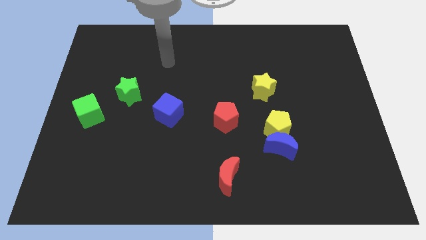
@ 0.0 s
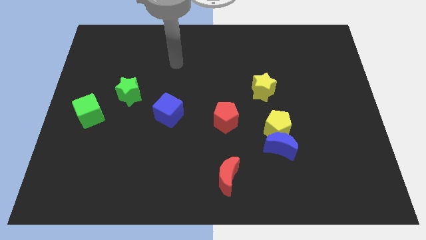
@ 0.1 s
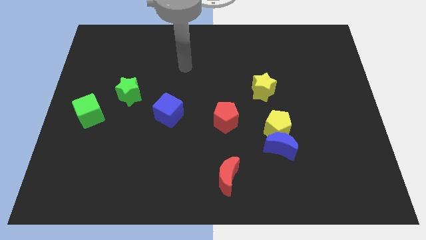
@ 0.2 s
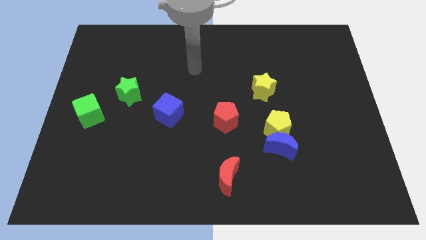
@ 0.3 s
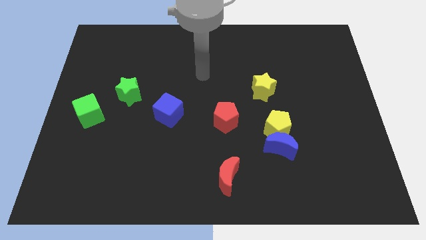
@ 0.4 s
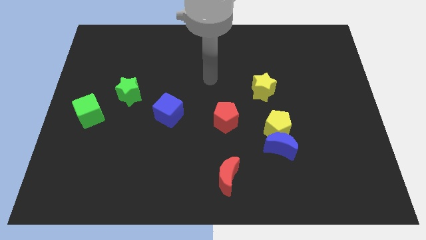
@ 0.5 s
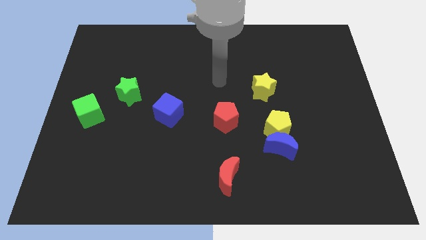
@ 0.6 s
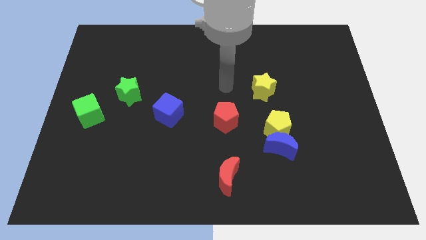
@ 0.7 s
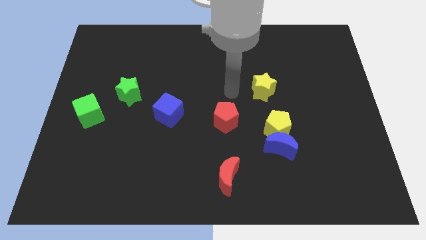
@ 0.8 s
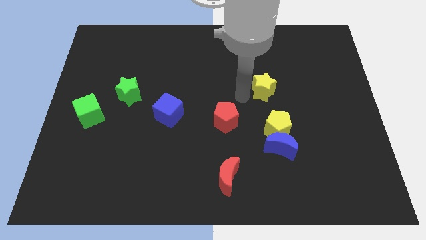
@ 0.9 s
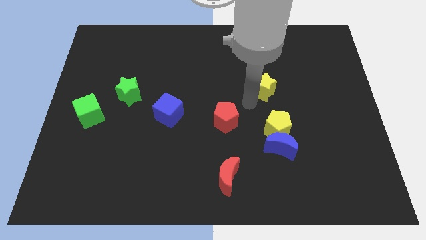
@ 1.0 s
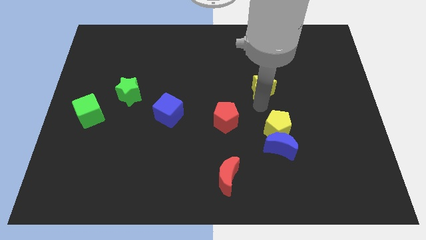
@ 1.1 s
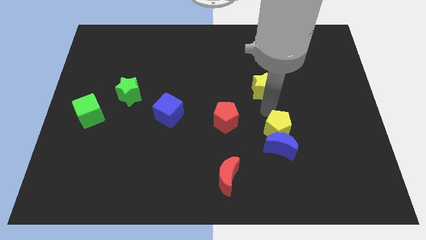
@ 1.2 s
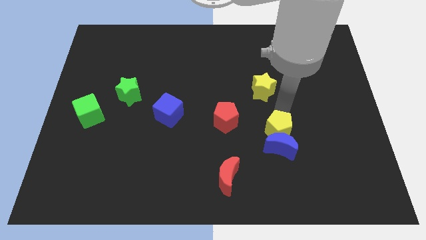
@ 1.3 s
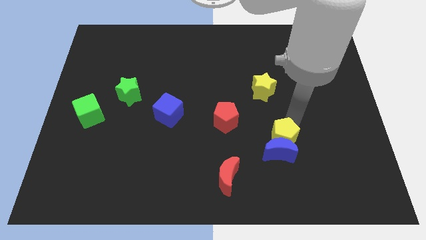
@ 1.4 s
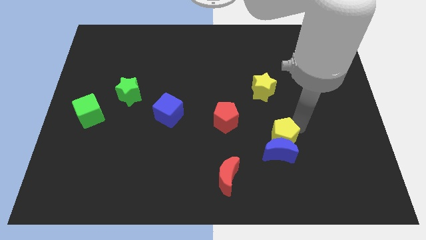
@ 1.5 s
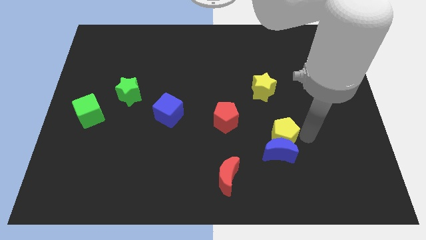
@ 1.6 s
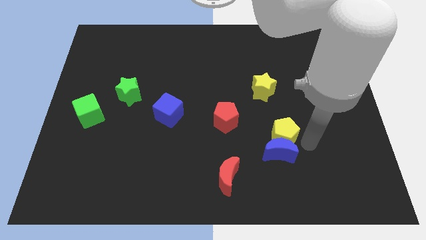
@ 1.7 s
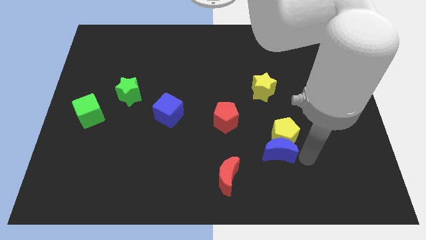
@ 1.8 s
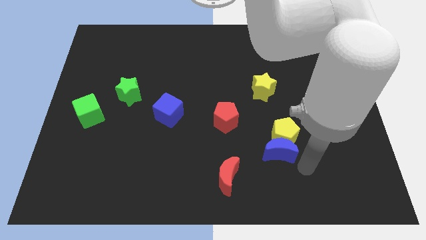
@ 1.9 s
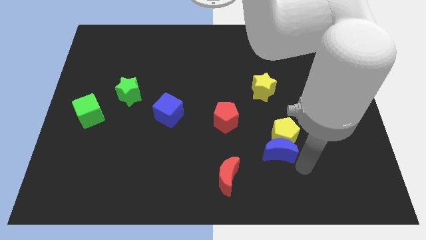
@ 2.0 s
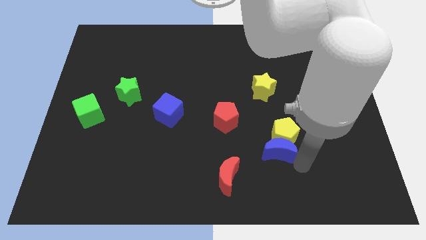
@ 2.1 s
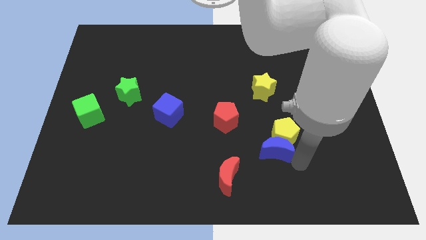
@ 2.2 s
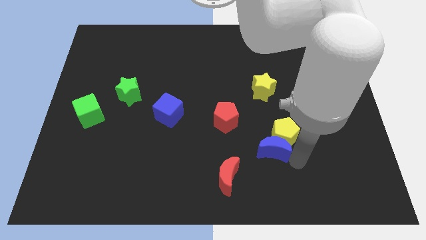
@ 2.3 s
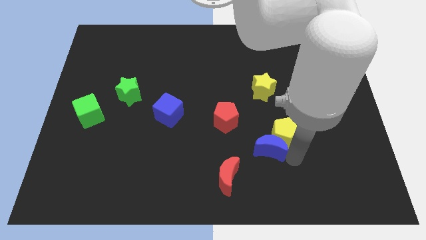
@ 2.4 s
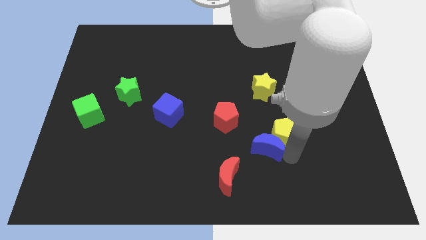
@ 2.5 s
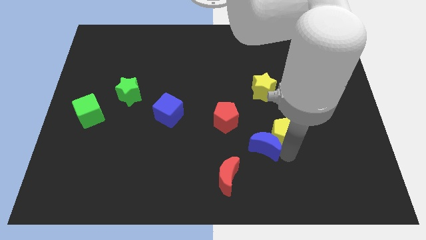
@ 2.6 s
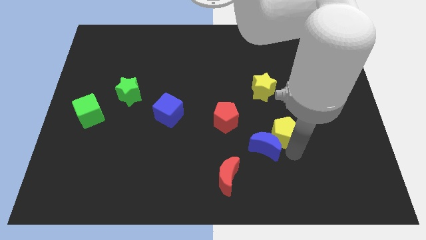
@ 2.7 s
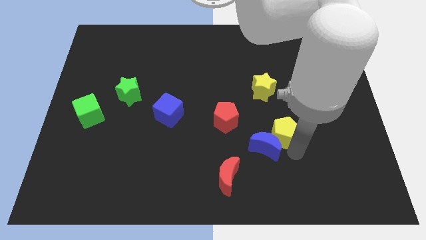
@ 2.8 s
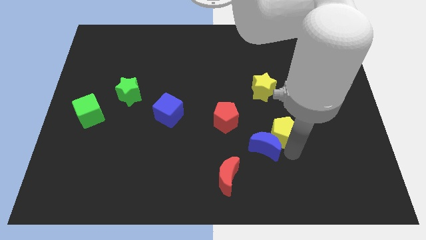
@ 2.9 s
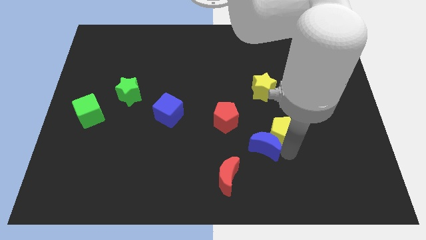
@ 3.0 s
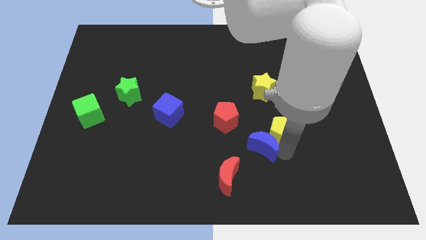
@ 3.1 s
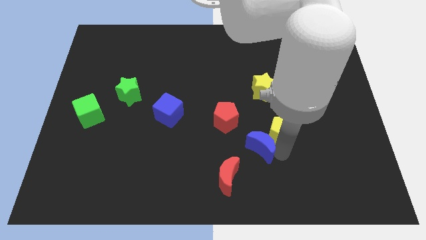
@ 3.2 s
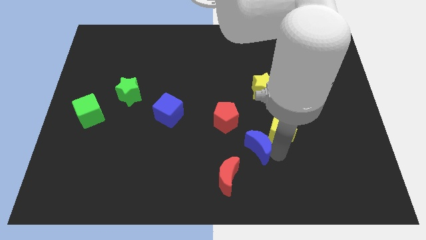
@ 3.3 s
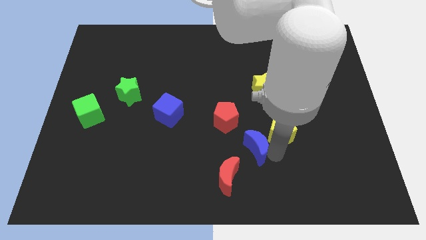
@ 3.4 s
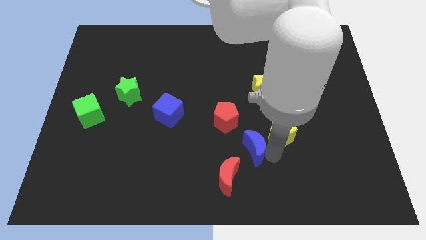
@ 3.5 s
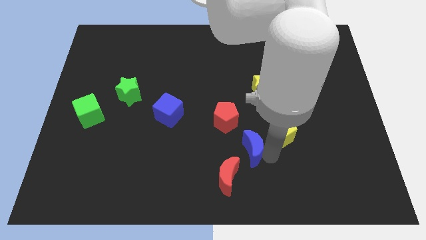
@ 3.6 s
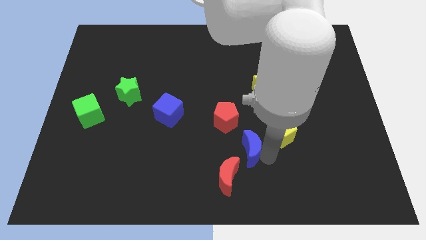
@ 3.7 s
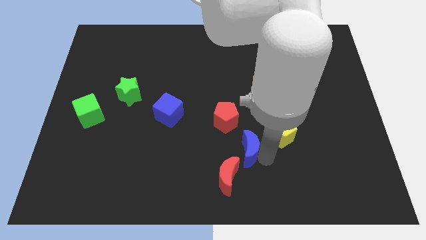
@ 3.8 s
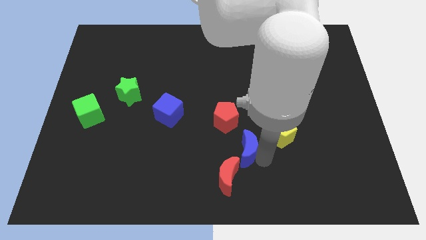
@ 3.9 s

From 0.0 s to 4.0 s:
slightly move the blue moon left

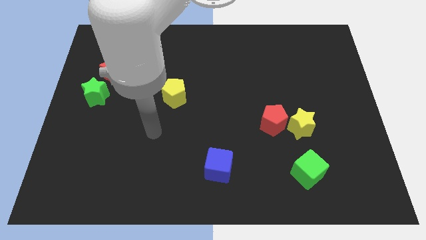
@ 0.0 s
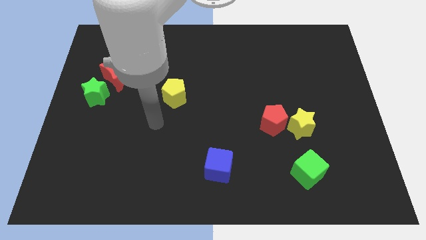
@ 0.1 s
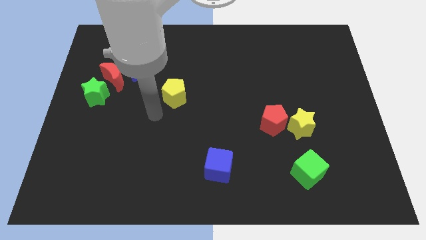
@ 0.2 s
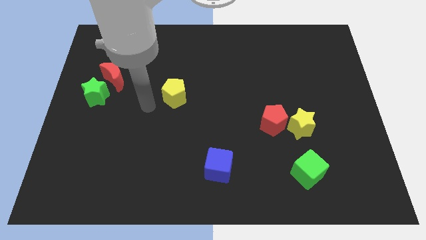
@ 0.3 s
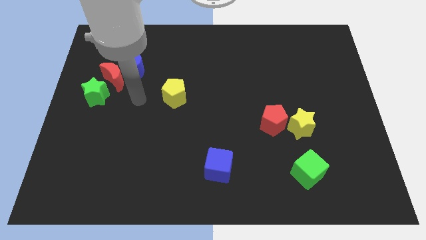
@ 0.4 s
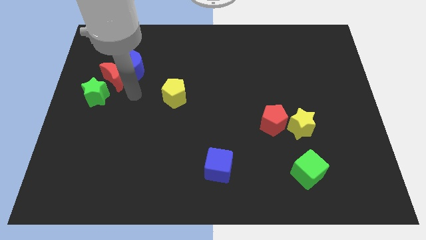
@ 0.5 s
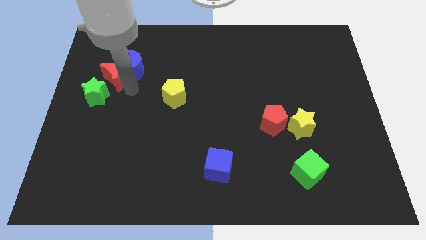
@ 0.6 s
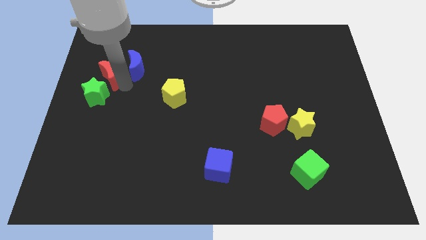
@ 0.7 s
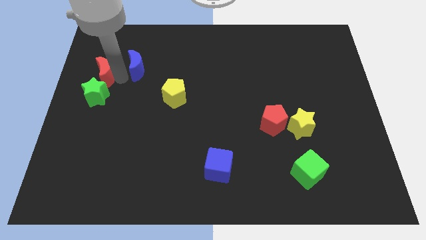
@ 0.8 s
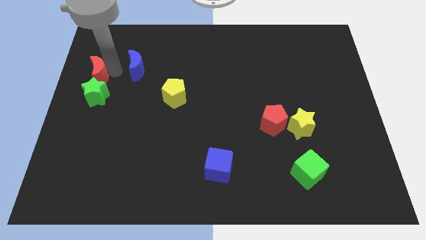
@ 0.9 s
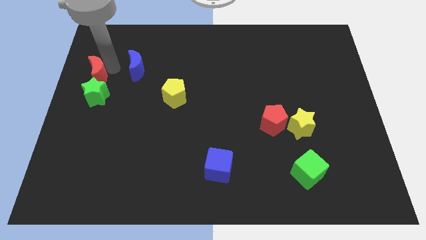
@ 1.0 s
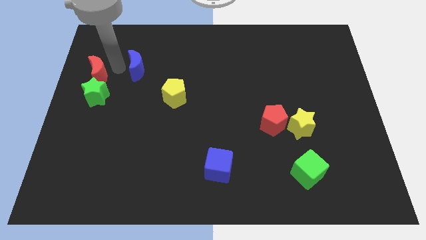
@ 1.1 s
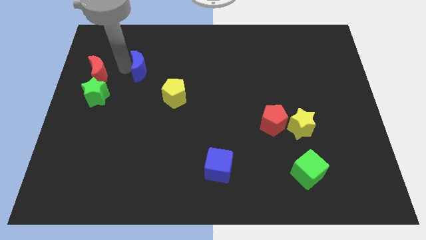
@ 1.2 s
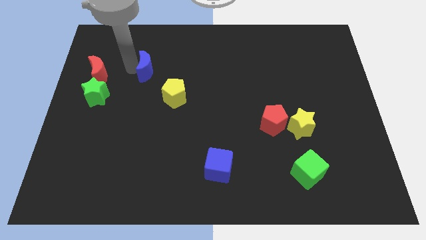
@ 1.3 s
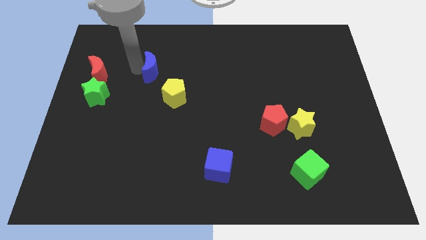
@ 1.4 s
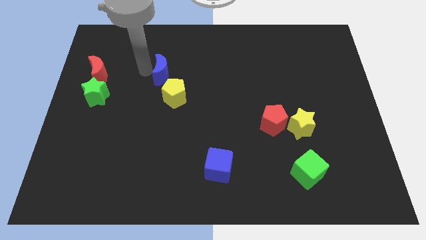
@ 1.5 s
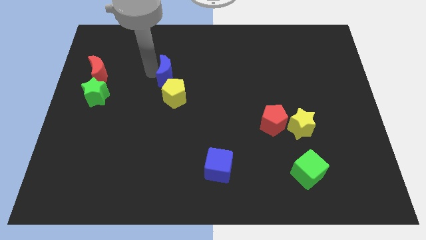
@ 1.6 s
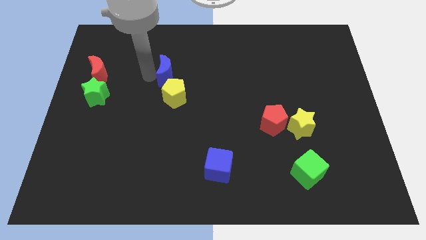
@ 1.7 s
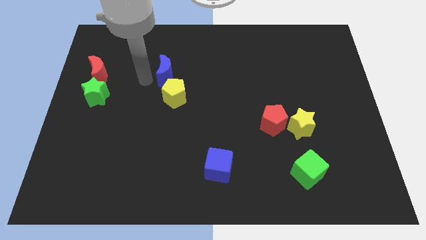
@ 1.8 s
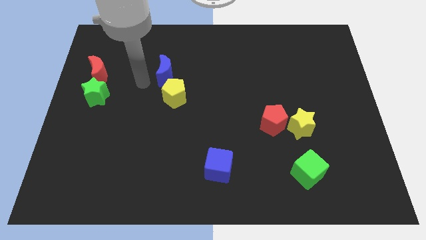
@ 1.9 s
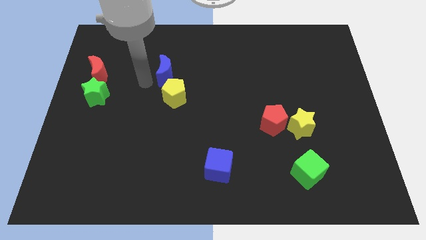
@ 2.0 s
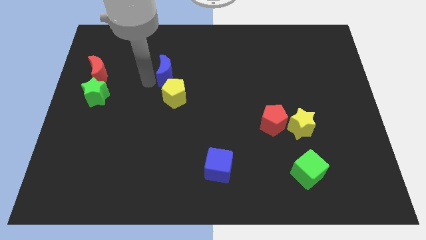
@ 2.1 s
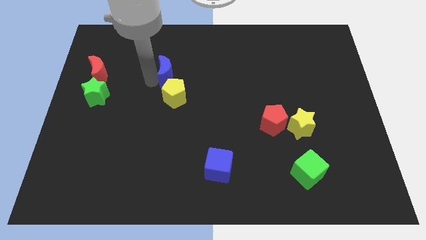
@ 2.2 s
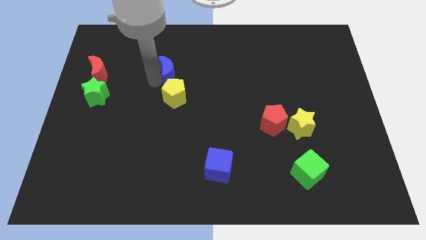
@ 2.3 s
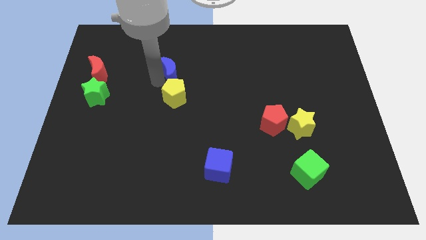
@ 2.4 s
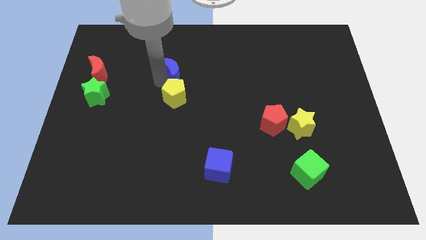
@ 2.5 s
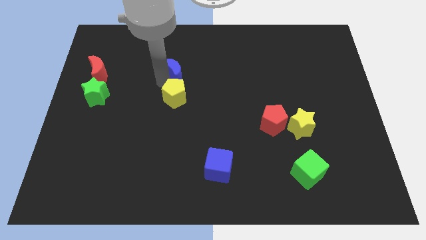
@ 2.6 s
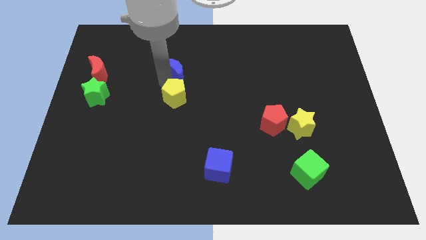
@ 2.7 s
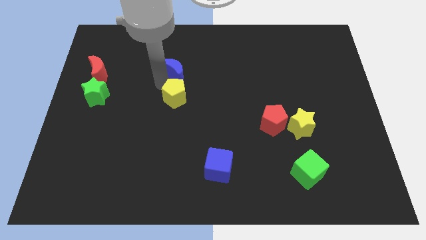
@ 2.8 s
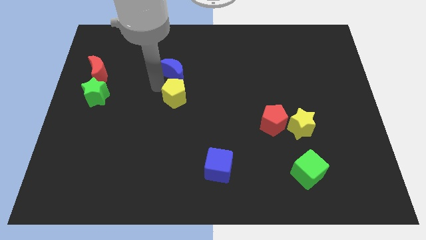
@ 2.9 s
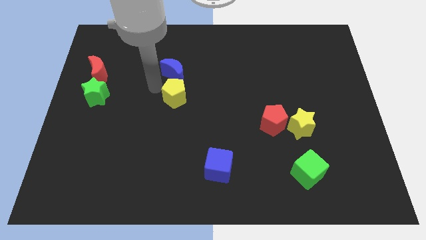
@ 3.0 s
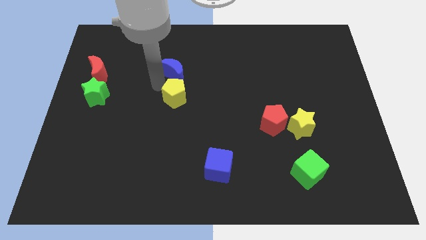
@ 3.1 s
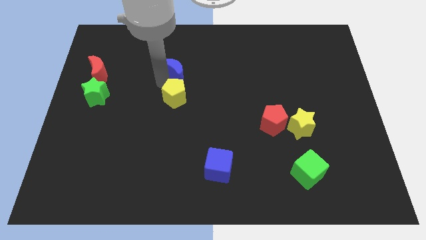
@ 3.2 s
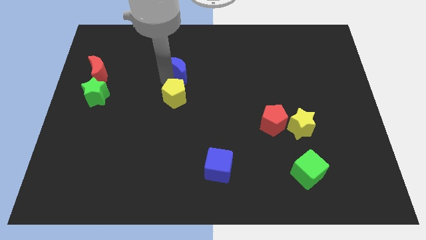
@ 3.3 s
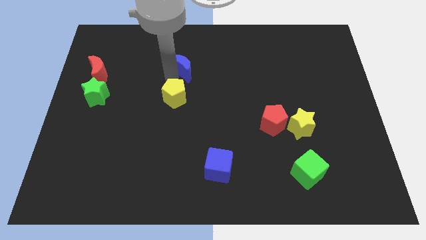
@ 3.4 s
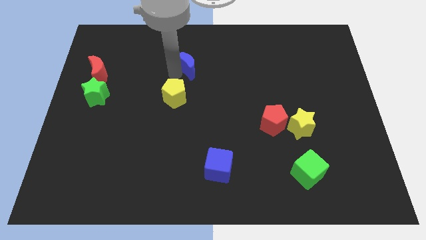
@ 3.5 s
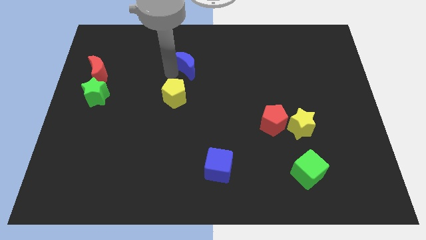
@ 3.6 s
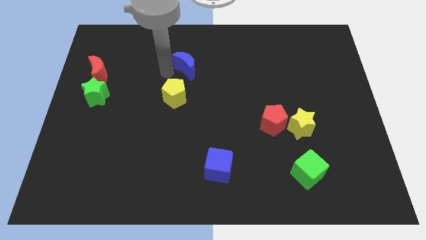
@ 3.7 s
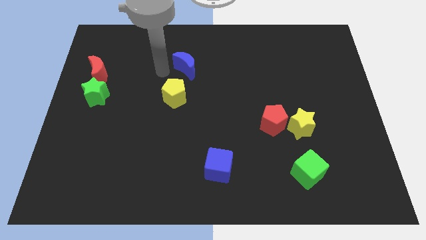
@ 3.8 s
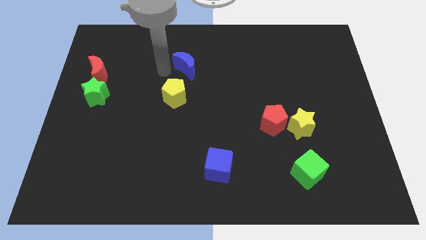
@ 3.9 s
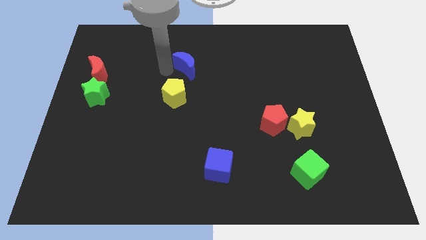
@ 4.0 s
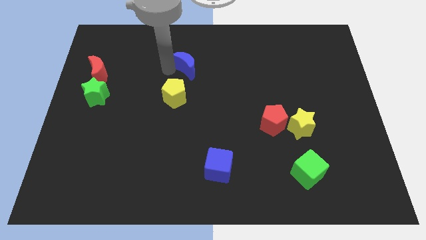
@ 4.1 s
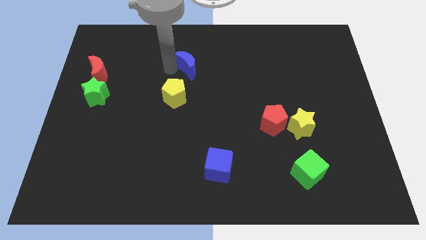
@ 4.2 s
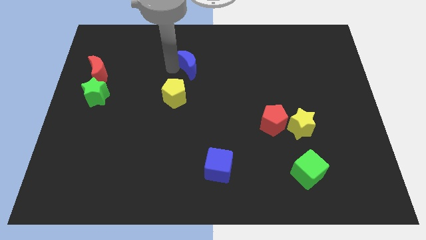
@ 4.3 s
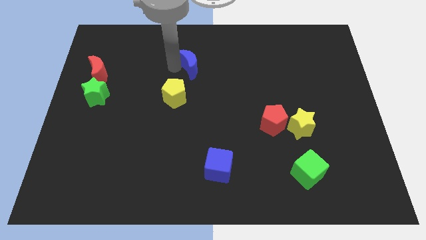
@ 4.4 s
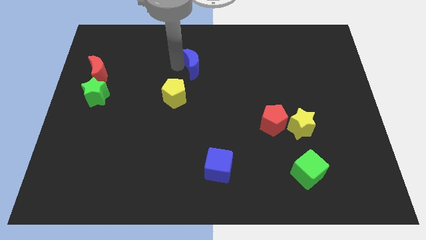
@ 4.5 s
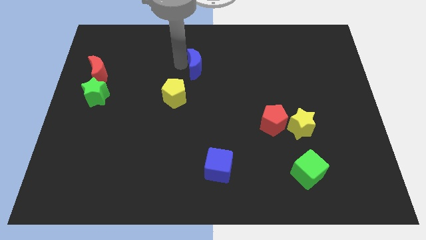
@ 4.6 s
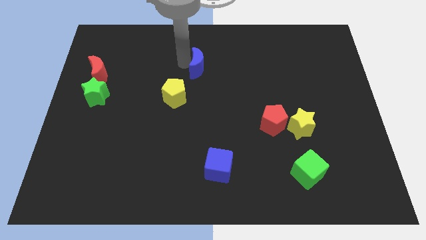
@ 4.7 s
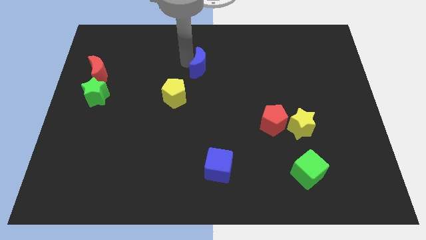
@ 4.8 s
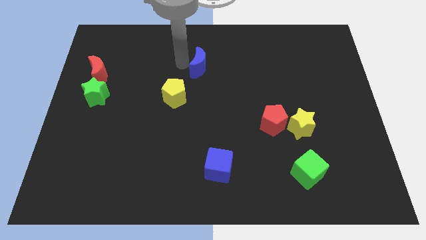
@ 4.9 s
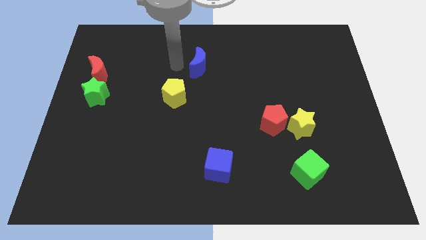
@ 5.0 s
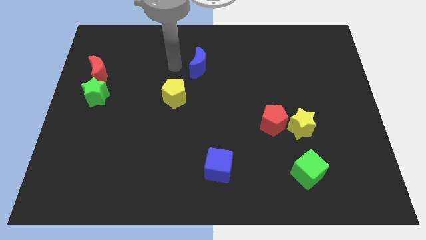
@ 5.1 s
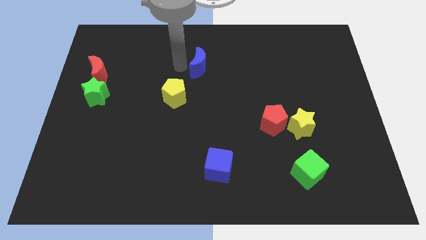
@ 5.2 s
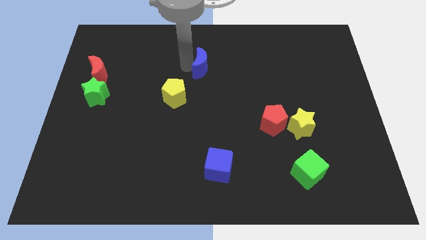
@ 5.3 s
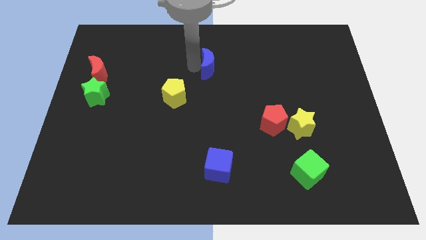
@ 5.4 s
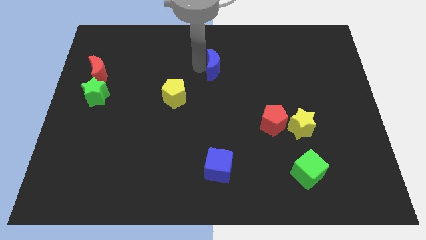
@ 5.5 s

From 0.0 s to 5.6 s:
push the blue moon right
